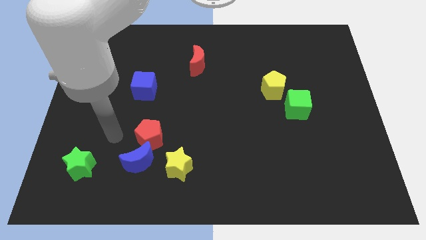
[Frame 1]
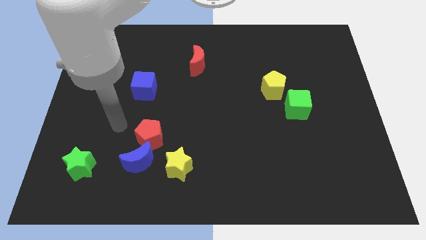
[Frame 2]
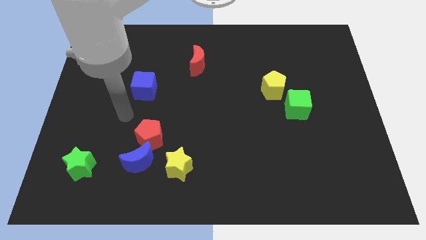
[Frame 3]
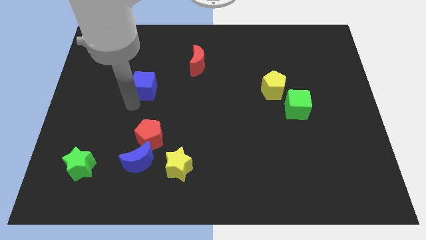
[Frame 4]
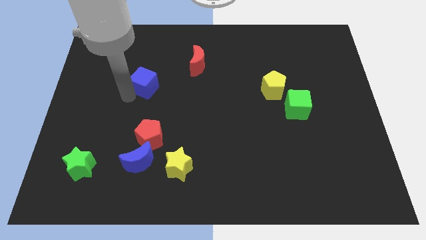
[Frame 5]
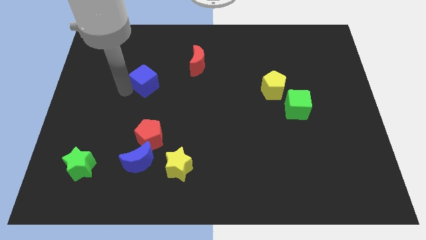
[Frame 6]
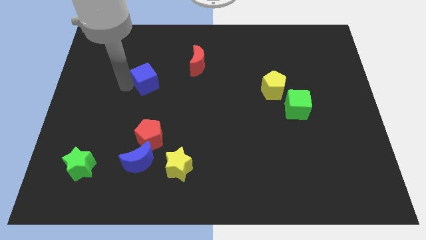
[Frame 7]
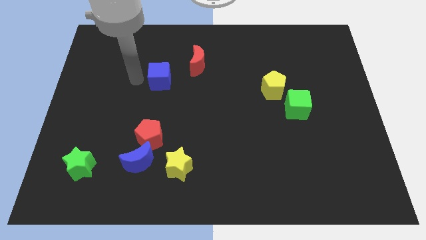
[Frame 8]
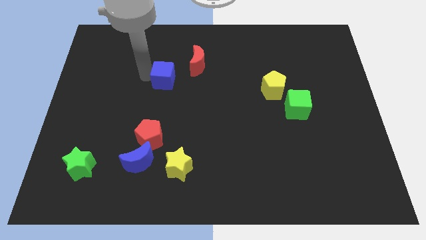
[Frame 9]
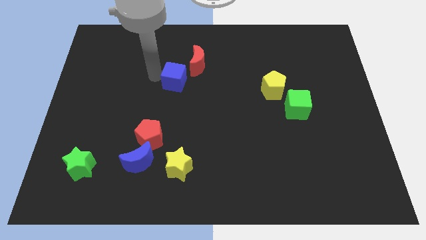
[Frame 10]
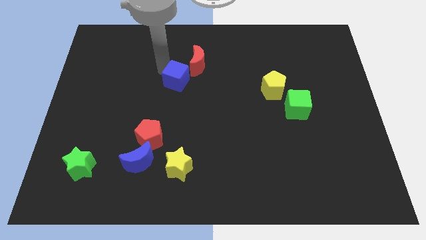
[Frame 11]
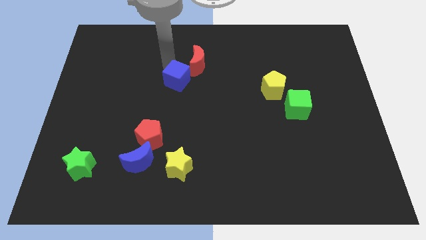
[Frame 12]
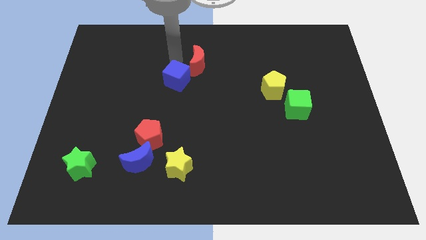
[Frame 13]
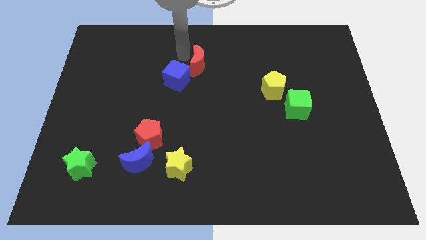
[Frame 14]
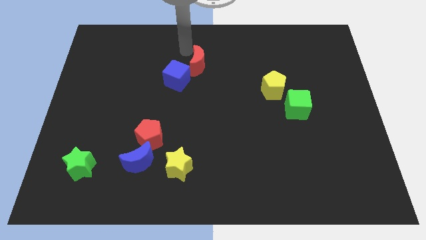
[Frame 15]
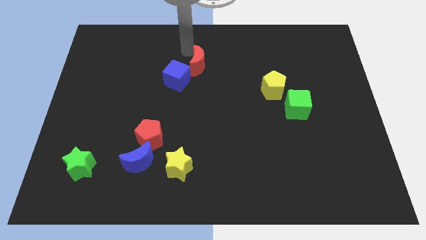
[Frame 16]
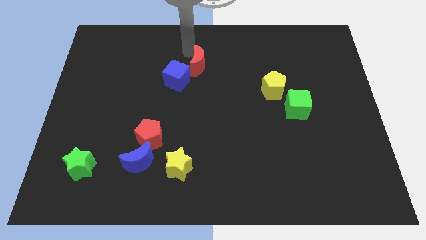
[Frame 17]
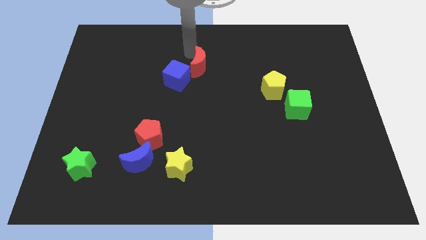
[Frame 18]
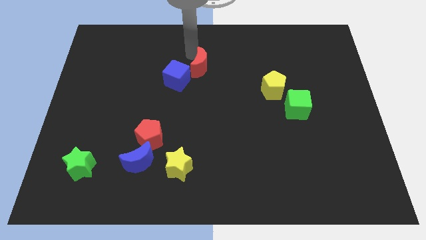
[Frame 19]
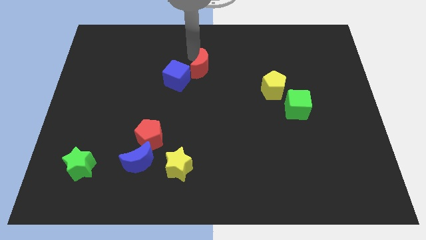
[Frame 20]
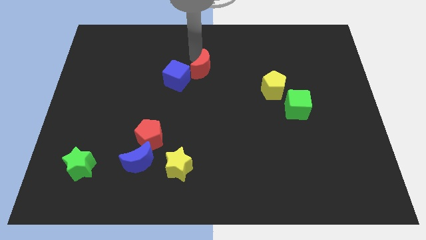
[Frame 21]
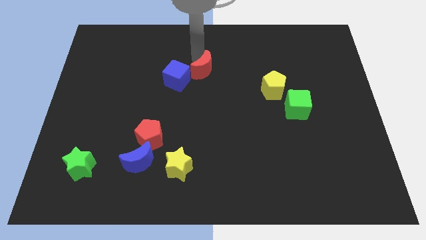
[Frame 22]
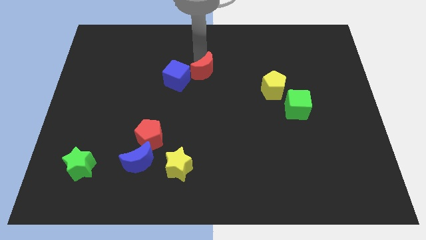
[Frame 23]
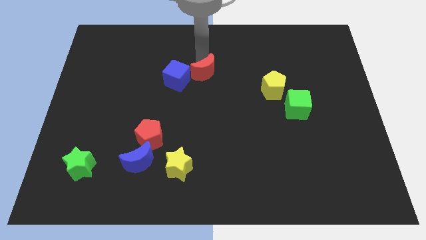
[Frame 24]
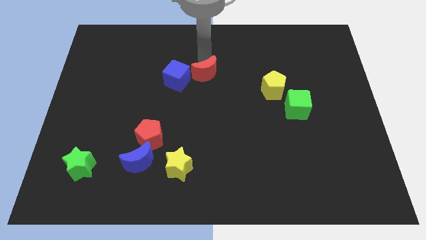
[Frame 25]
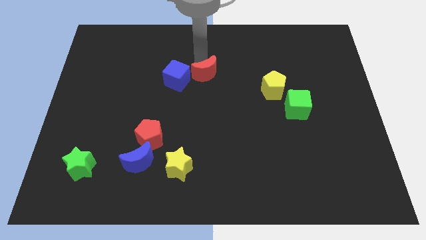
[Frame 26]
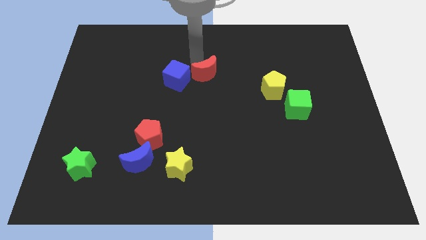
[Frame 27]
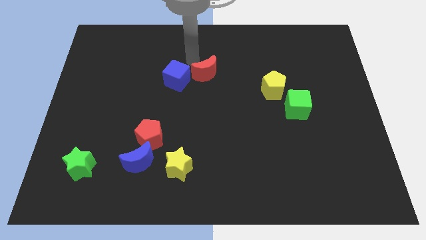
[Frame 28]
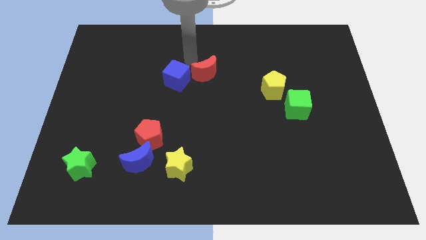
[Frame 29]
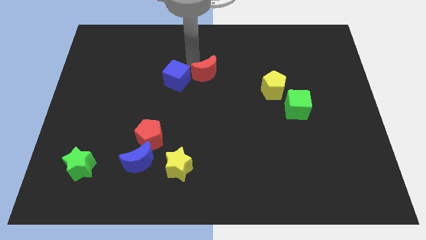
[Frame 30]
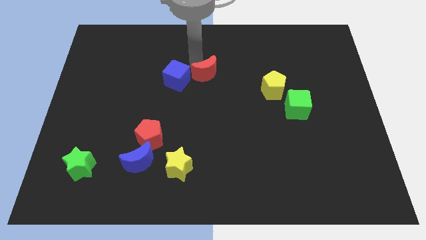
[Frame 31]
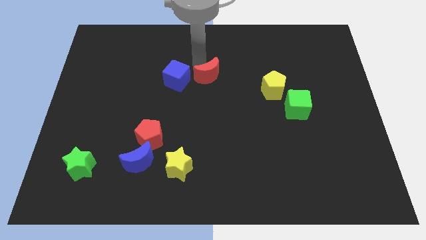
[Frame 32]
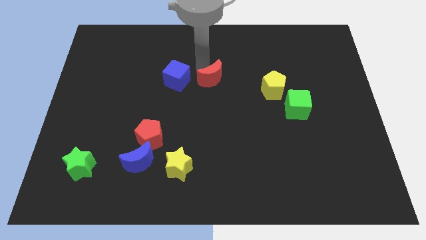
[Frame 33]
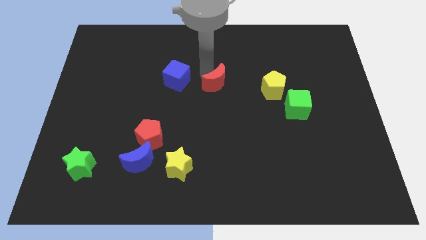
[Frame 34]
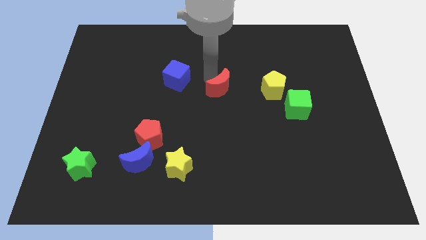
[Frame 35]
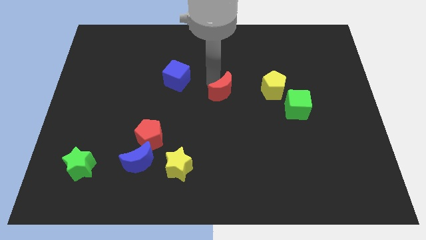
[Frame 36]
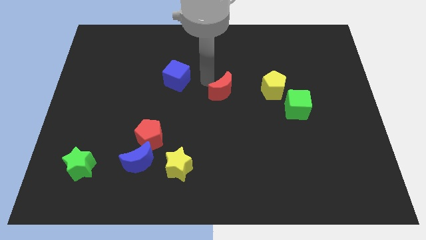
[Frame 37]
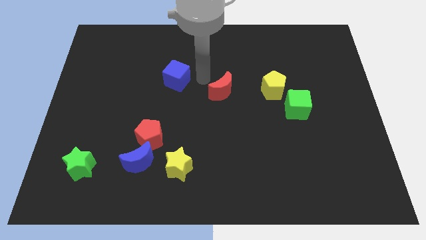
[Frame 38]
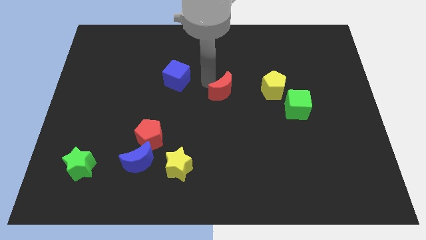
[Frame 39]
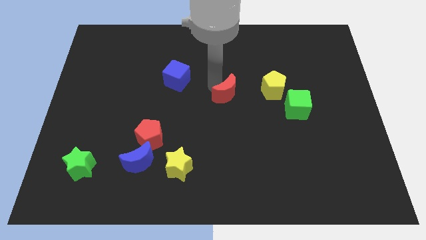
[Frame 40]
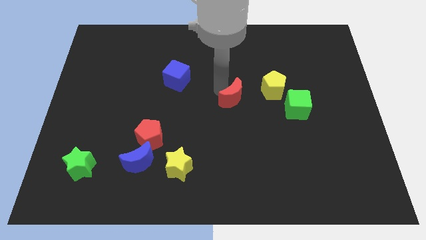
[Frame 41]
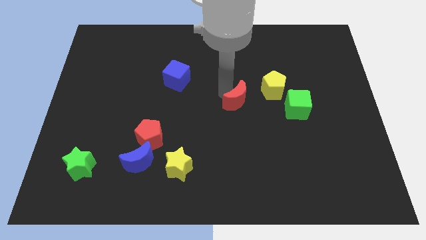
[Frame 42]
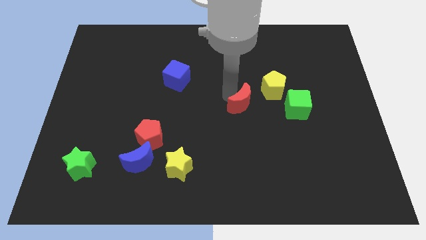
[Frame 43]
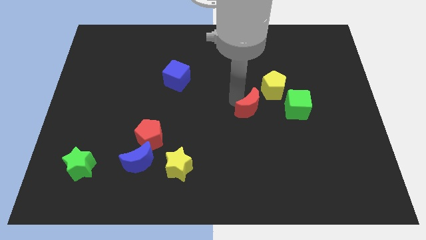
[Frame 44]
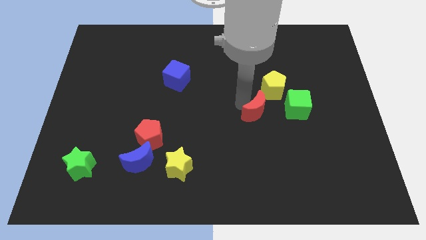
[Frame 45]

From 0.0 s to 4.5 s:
push the red moon below the yellow pentagon

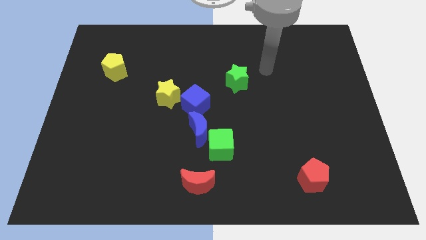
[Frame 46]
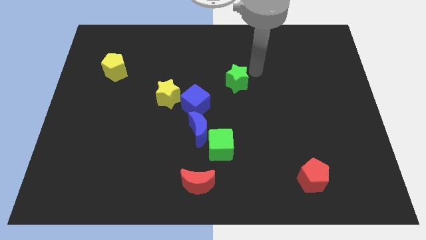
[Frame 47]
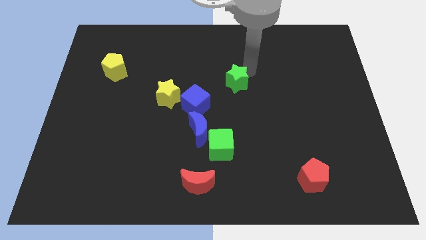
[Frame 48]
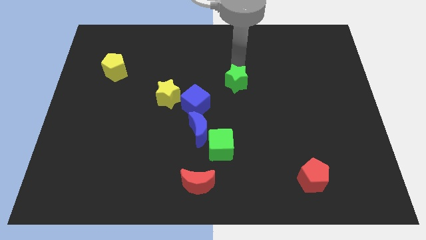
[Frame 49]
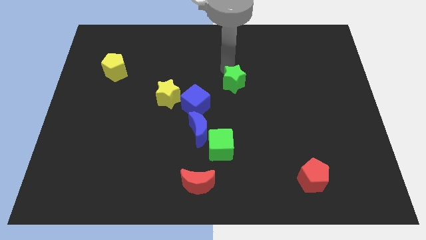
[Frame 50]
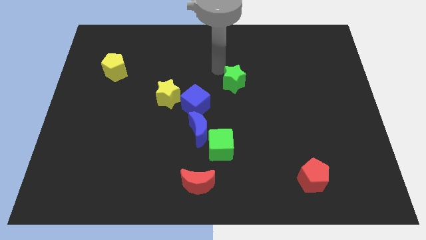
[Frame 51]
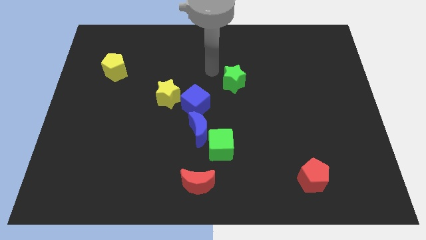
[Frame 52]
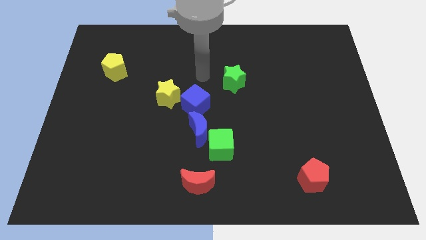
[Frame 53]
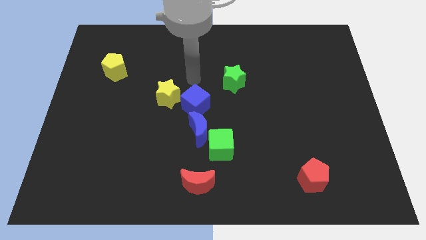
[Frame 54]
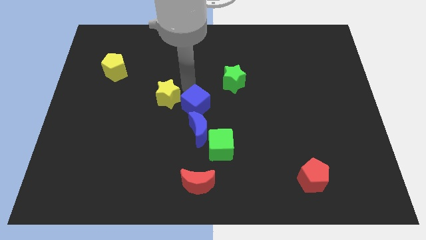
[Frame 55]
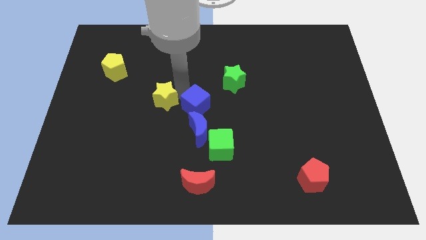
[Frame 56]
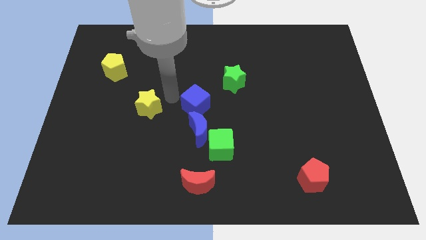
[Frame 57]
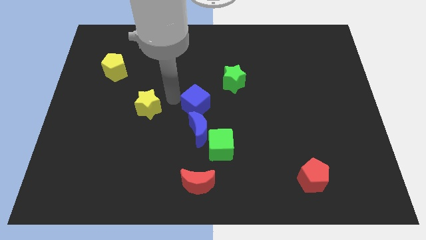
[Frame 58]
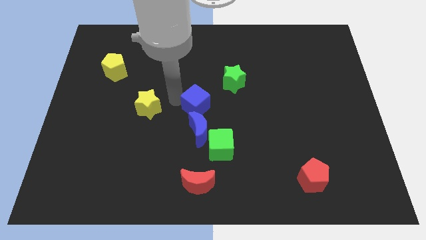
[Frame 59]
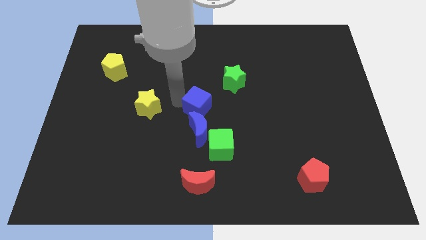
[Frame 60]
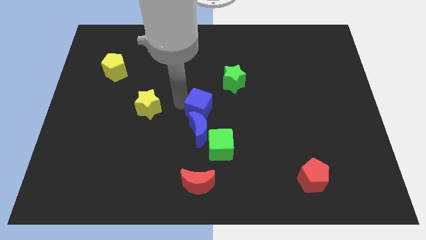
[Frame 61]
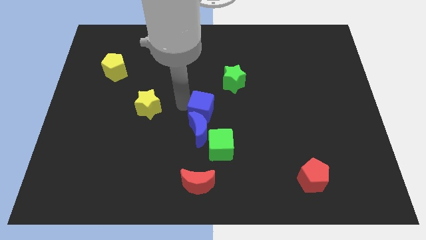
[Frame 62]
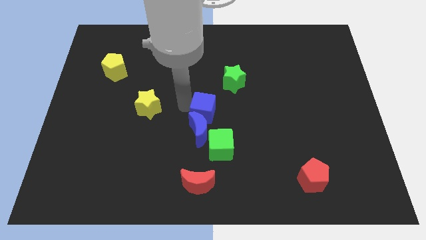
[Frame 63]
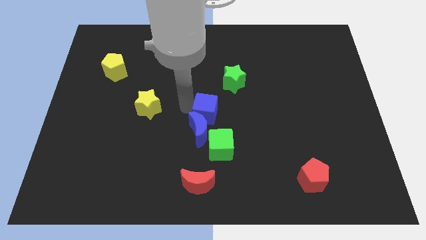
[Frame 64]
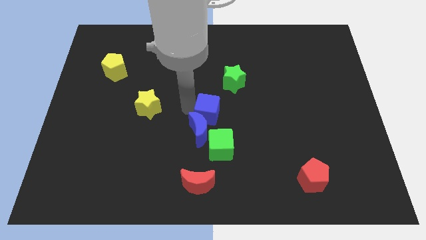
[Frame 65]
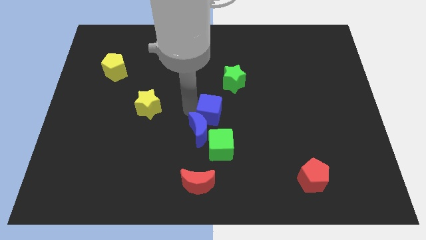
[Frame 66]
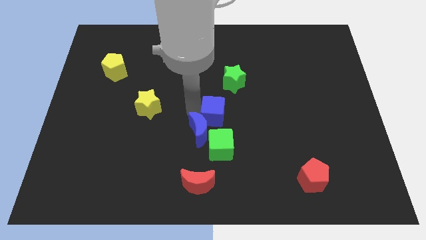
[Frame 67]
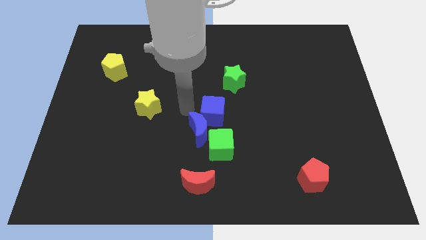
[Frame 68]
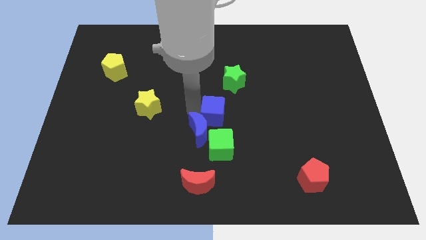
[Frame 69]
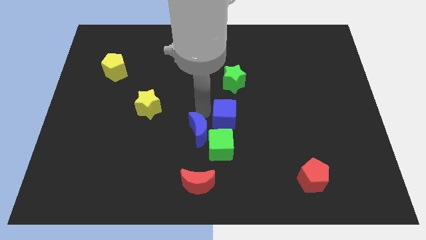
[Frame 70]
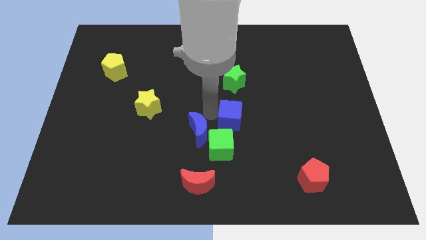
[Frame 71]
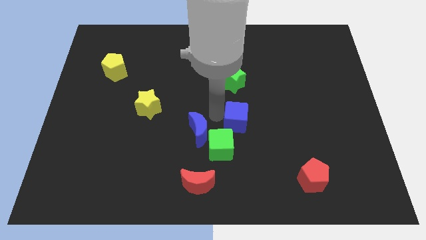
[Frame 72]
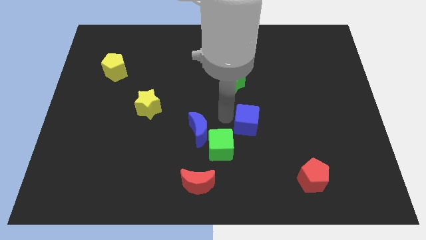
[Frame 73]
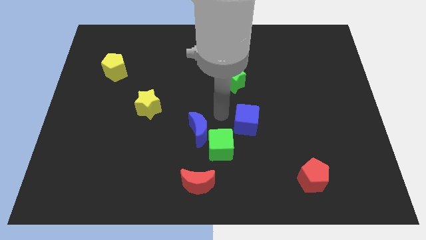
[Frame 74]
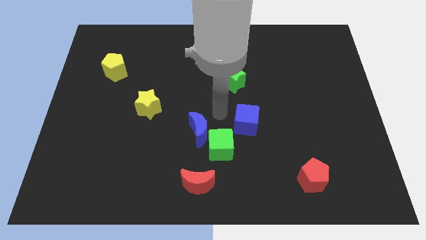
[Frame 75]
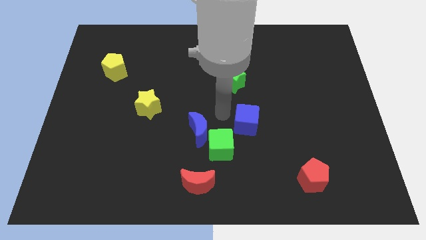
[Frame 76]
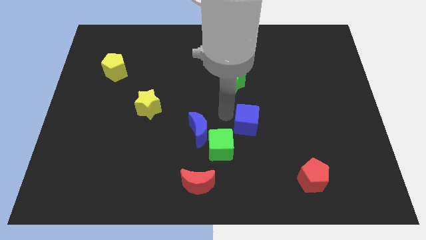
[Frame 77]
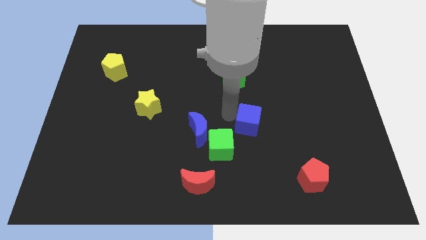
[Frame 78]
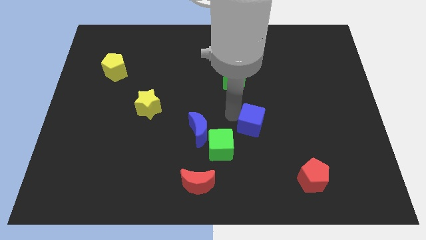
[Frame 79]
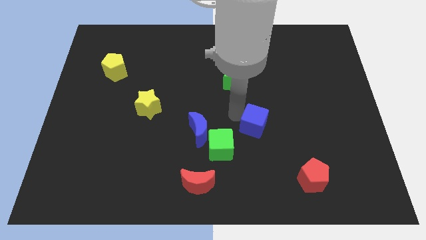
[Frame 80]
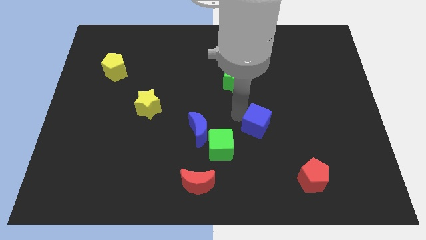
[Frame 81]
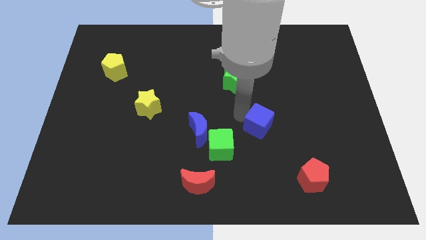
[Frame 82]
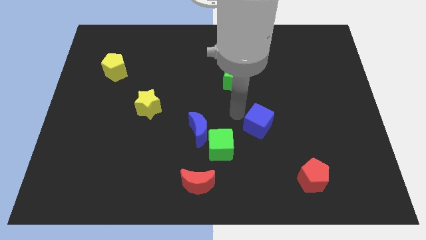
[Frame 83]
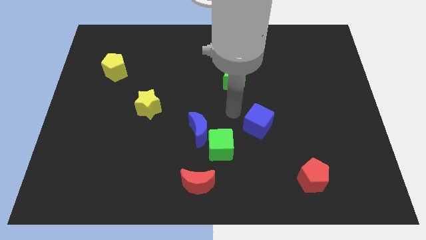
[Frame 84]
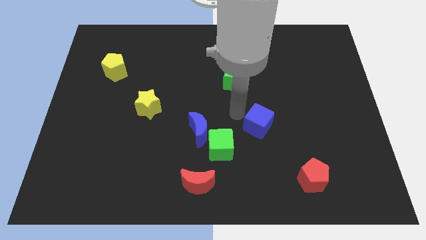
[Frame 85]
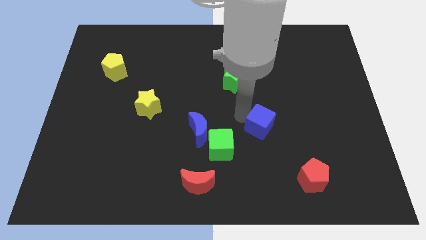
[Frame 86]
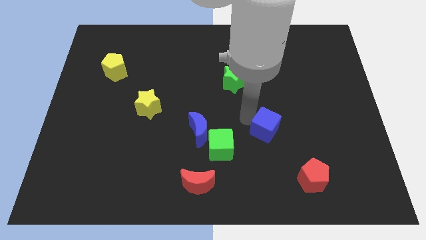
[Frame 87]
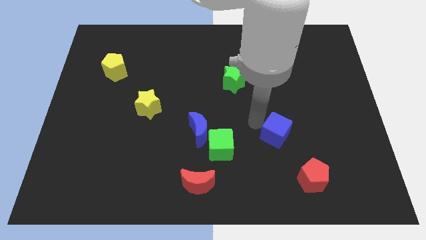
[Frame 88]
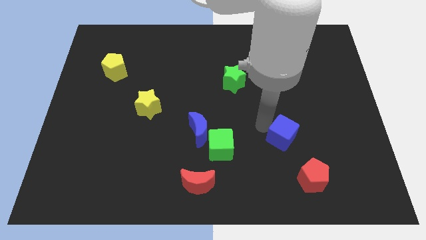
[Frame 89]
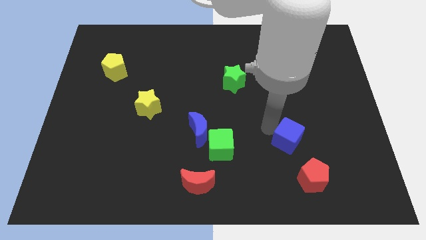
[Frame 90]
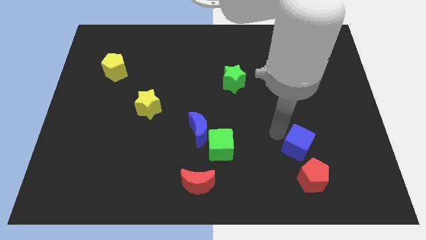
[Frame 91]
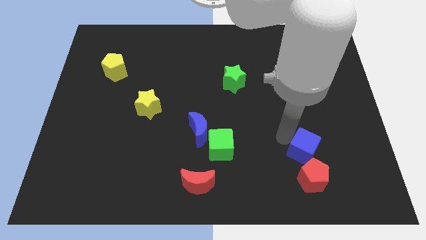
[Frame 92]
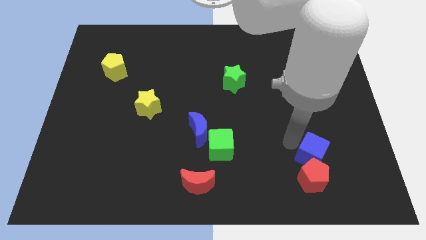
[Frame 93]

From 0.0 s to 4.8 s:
move the blue cube to the top right side of the red pentagon
